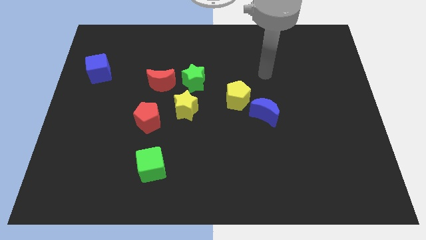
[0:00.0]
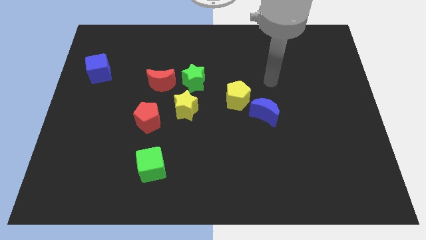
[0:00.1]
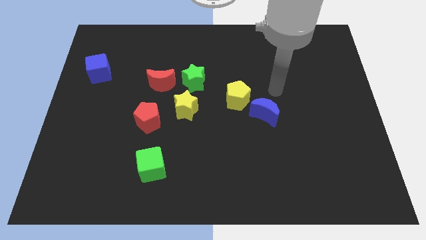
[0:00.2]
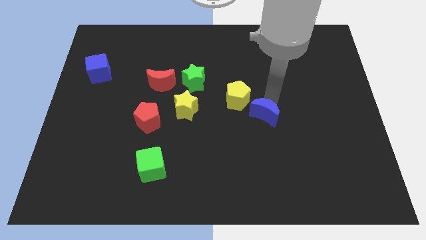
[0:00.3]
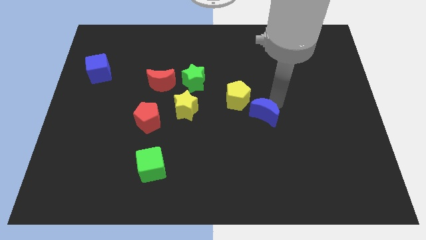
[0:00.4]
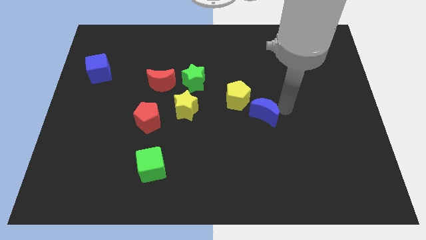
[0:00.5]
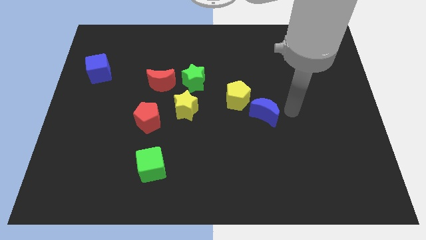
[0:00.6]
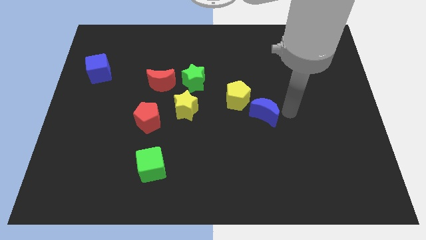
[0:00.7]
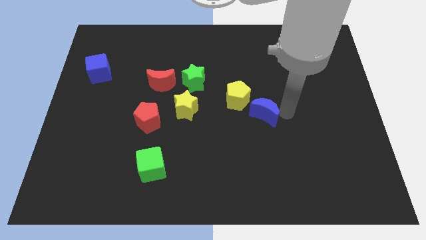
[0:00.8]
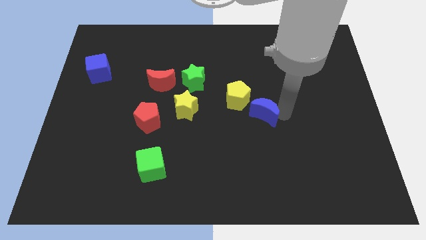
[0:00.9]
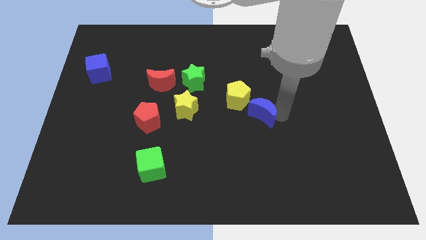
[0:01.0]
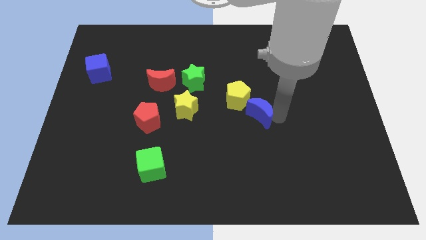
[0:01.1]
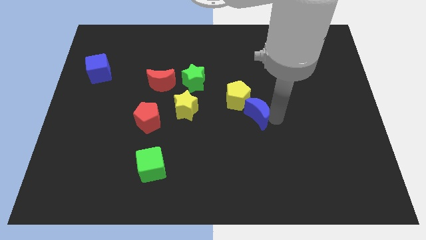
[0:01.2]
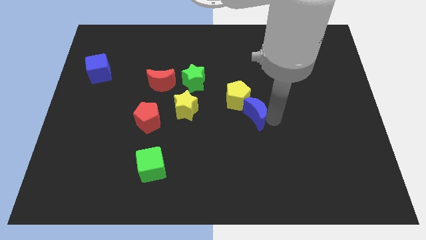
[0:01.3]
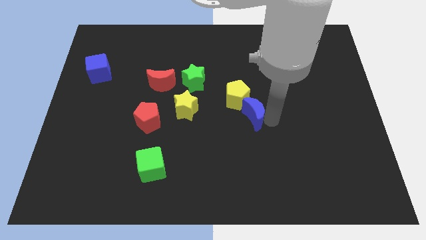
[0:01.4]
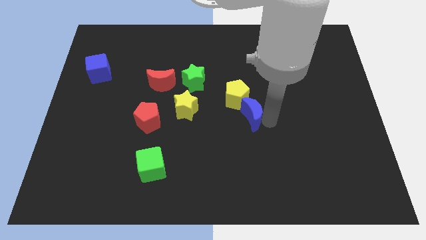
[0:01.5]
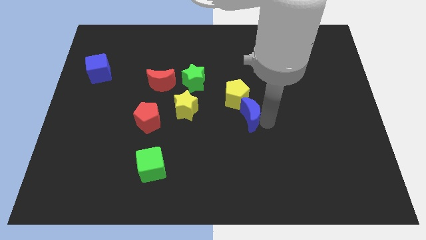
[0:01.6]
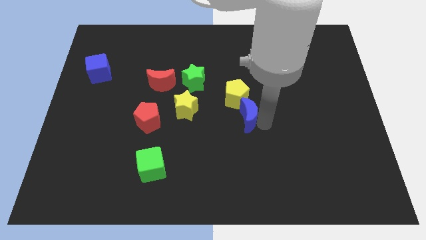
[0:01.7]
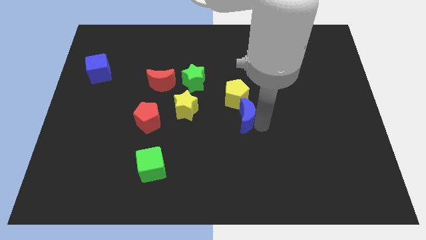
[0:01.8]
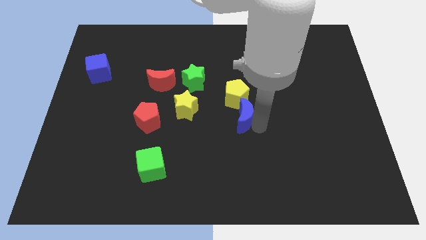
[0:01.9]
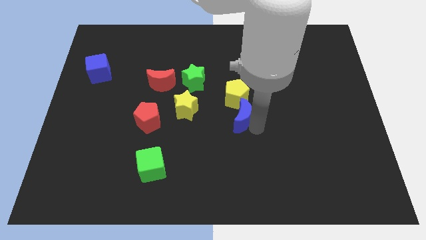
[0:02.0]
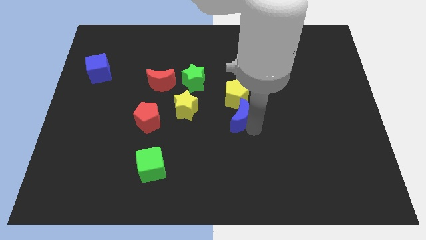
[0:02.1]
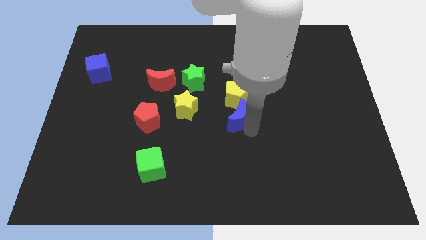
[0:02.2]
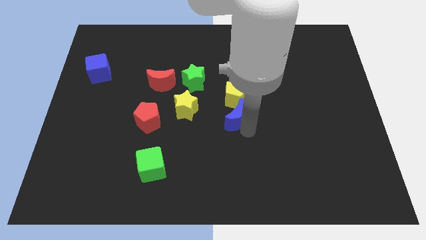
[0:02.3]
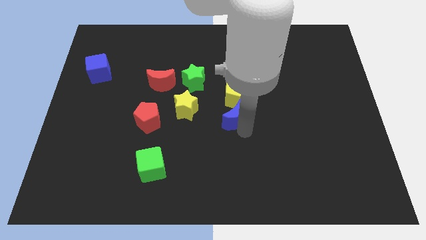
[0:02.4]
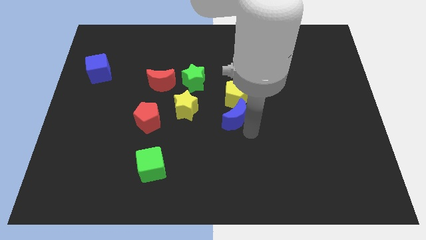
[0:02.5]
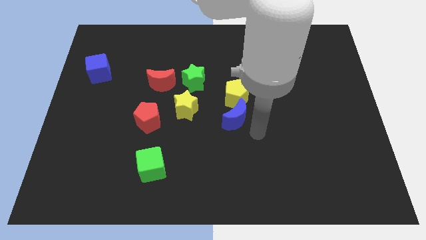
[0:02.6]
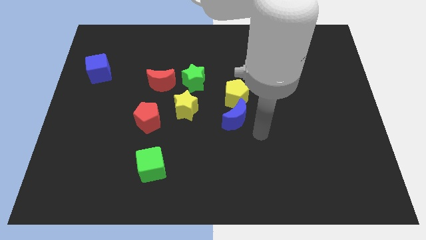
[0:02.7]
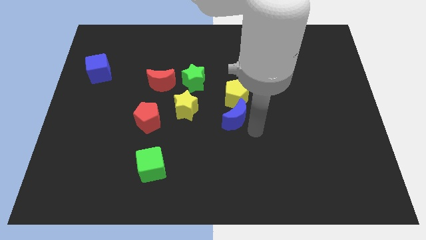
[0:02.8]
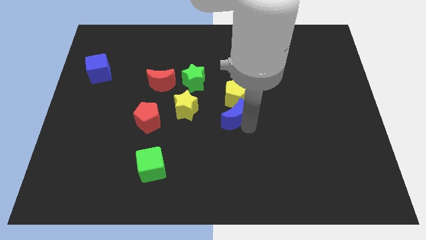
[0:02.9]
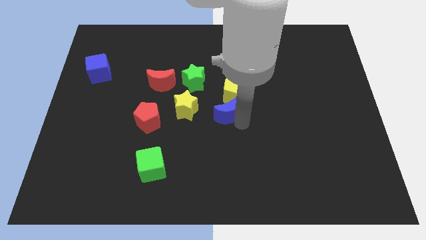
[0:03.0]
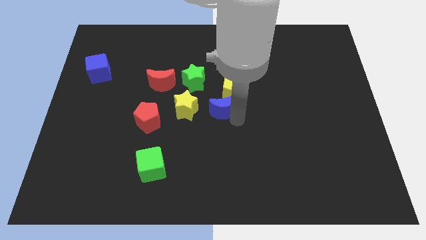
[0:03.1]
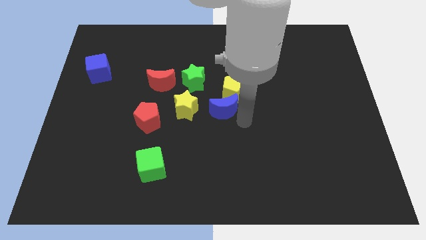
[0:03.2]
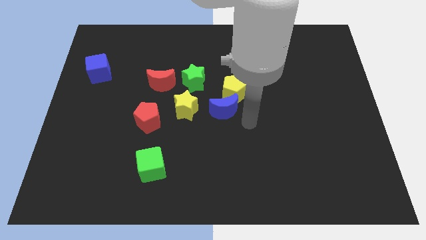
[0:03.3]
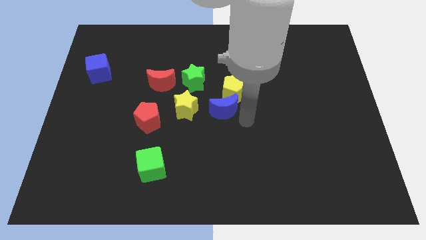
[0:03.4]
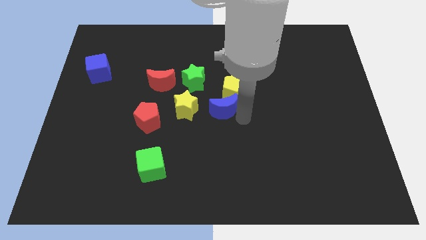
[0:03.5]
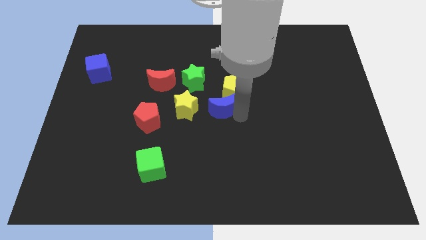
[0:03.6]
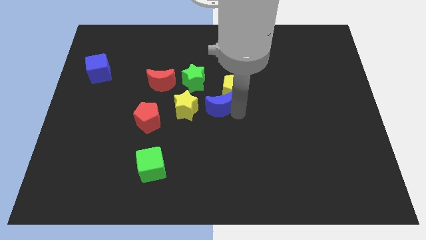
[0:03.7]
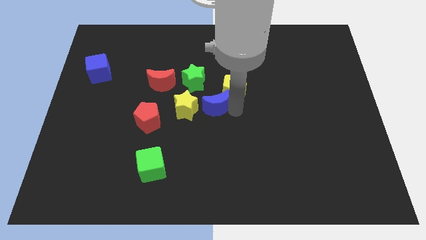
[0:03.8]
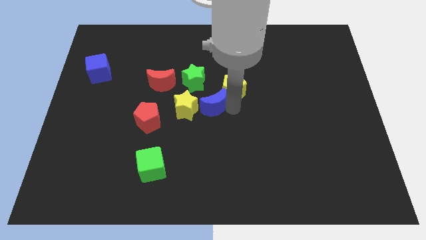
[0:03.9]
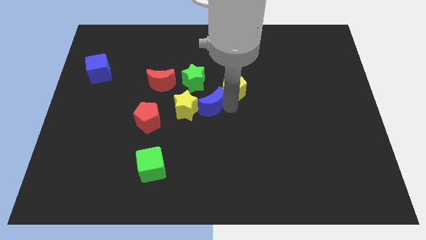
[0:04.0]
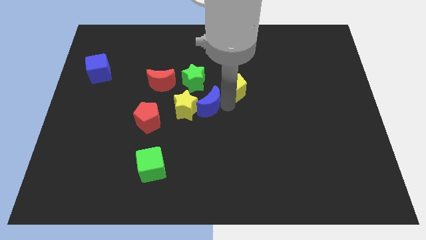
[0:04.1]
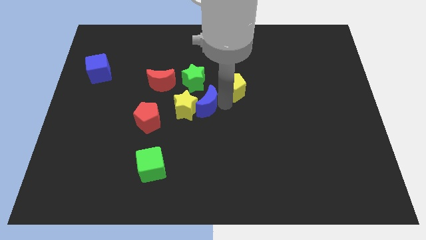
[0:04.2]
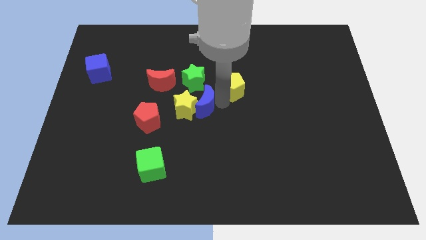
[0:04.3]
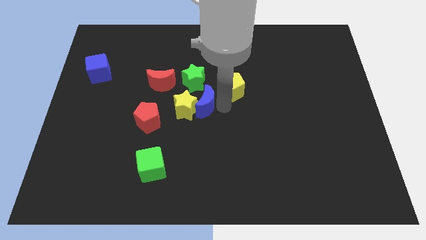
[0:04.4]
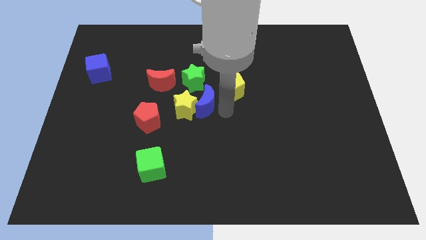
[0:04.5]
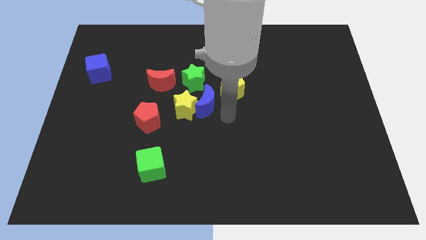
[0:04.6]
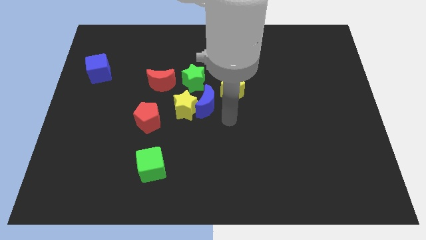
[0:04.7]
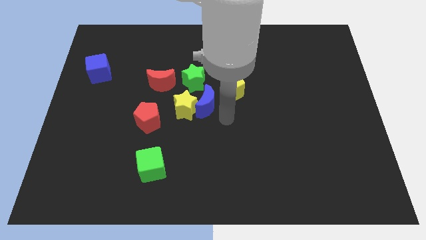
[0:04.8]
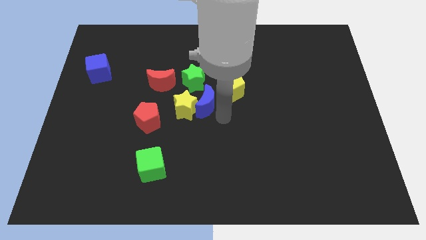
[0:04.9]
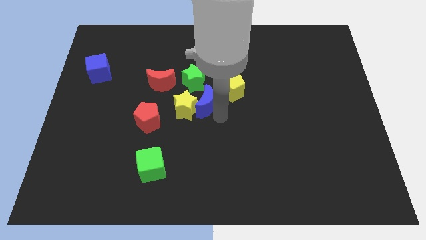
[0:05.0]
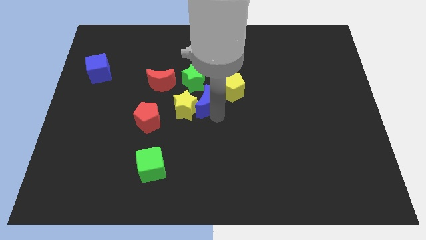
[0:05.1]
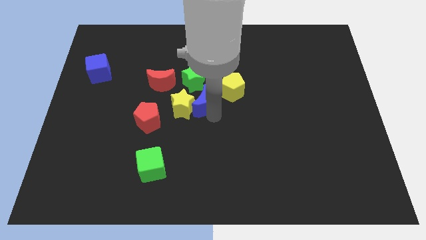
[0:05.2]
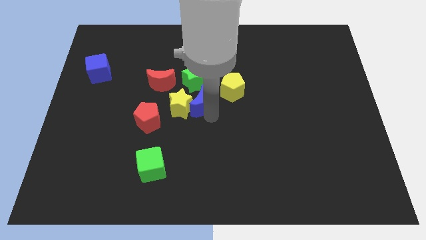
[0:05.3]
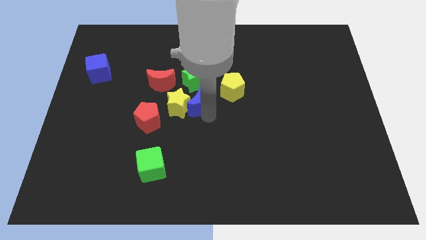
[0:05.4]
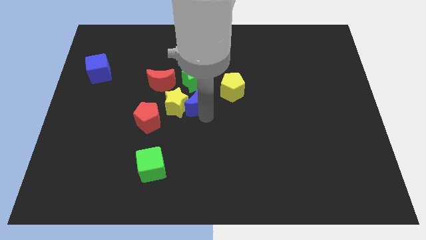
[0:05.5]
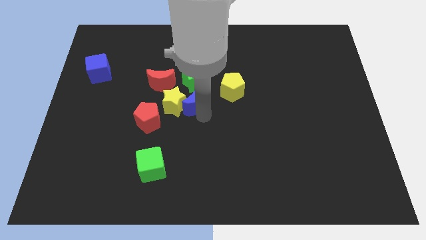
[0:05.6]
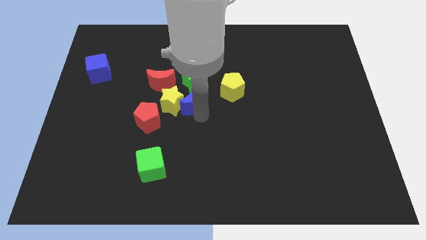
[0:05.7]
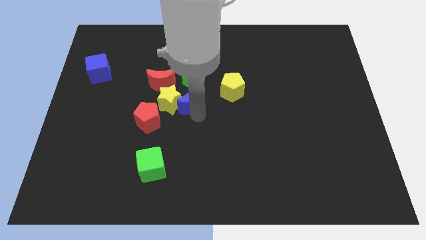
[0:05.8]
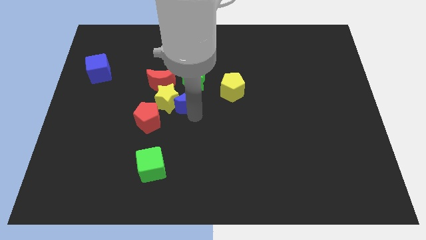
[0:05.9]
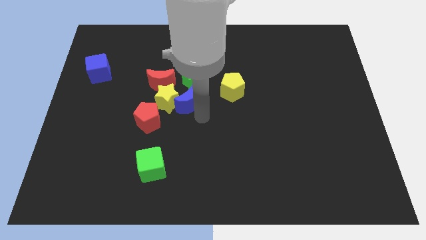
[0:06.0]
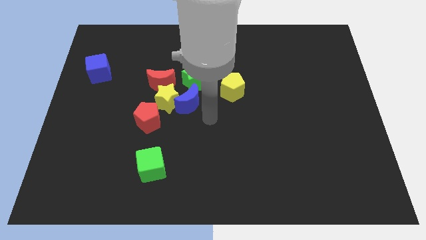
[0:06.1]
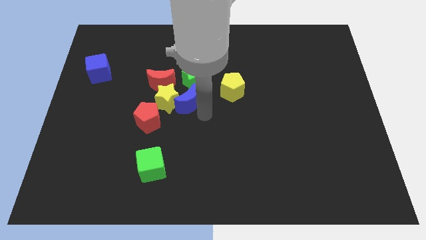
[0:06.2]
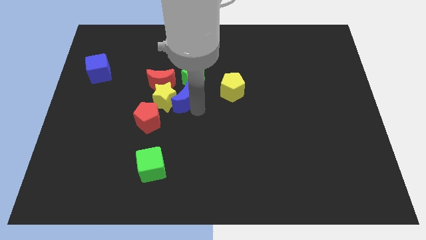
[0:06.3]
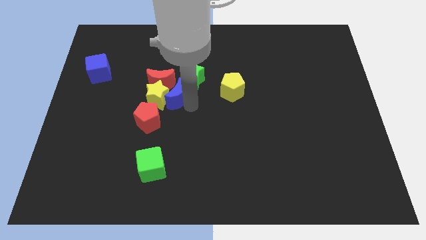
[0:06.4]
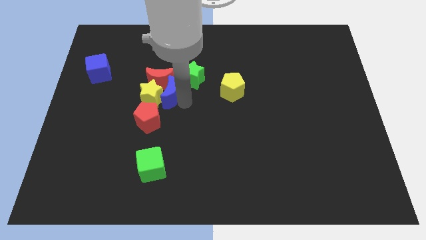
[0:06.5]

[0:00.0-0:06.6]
slide the blue moon to the red moon

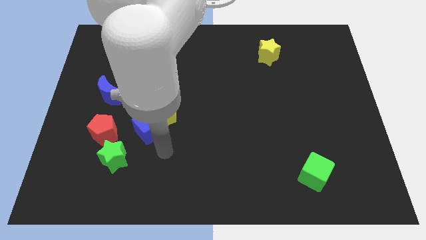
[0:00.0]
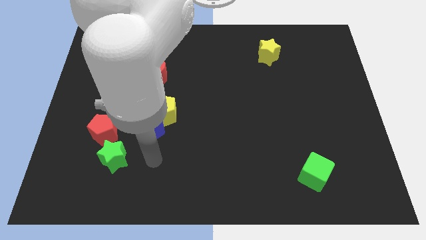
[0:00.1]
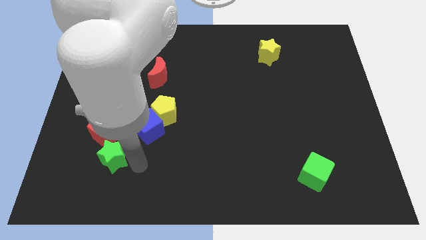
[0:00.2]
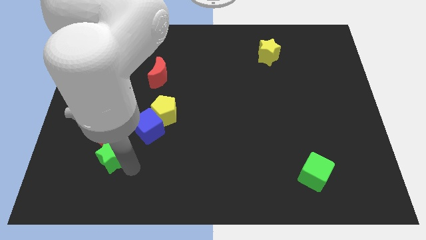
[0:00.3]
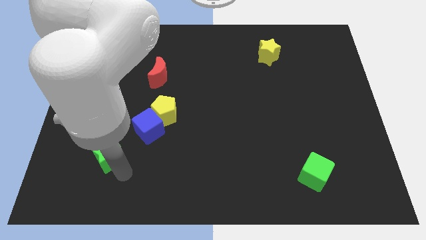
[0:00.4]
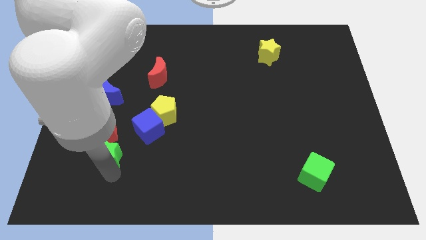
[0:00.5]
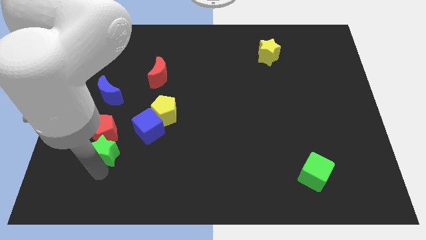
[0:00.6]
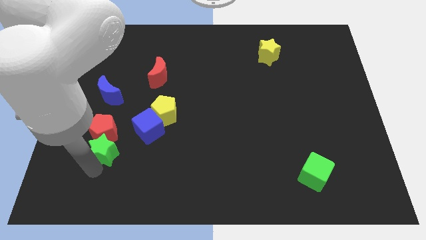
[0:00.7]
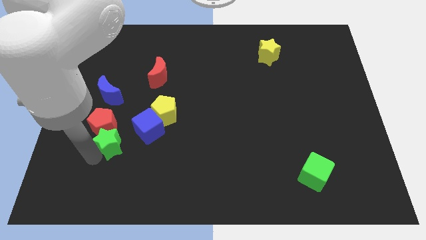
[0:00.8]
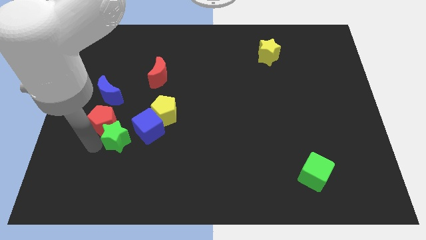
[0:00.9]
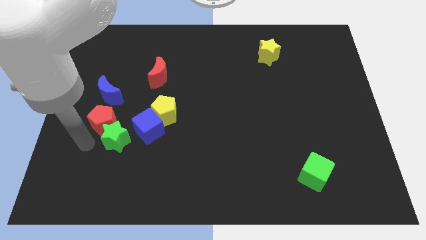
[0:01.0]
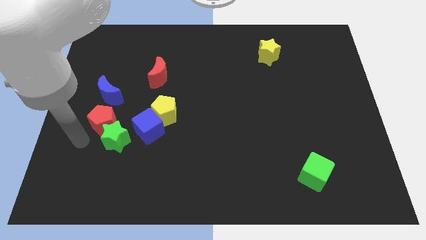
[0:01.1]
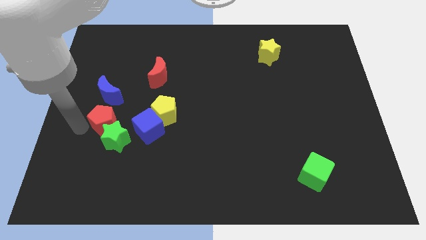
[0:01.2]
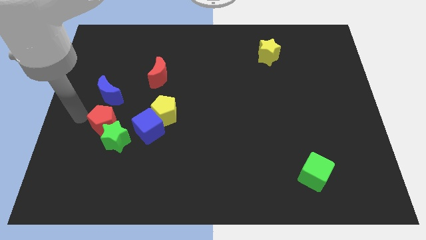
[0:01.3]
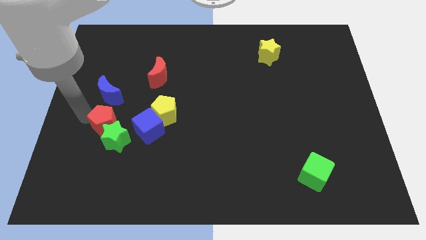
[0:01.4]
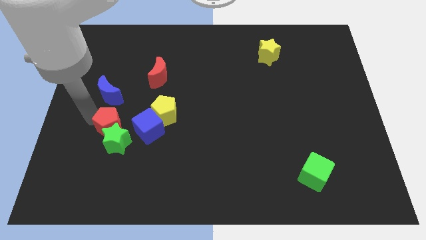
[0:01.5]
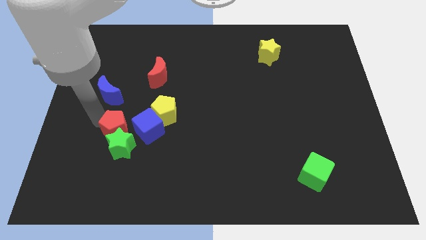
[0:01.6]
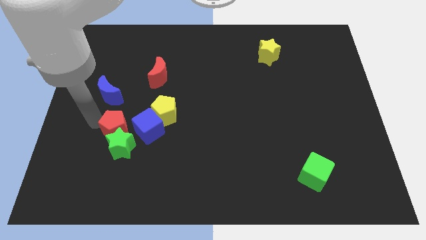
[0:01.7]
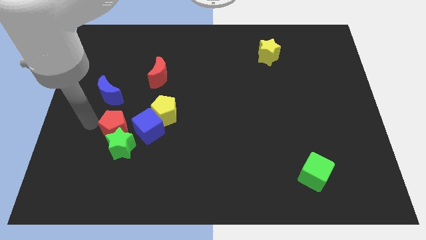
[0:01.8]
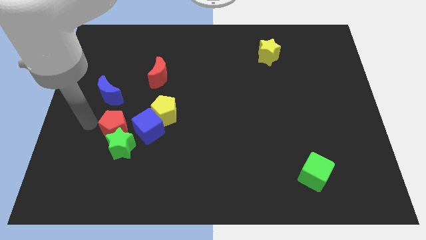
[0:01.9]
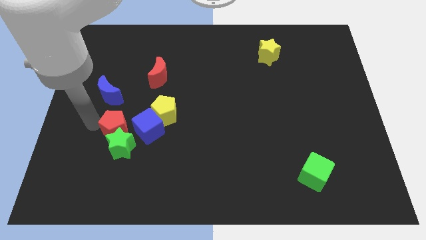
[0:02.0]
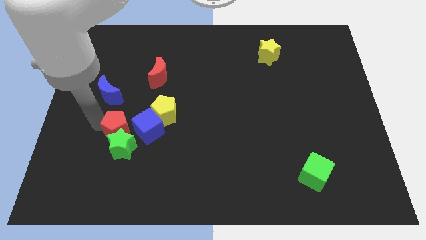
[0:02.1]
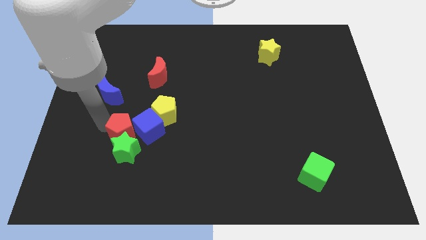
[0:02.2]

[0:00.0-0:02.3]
slide the red pentagon towards the blue cube
